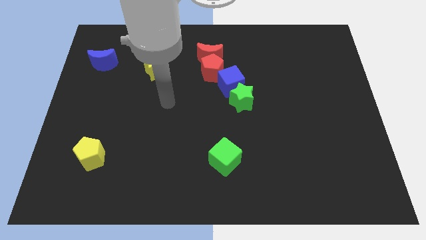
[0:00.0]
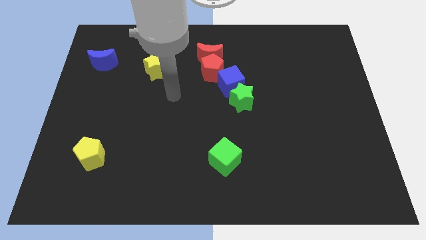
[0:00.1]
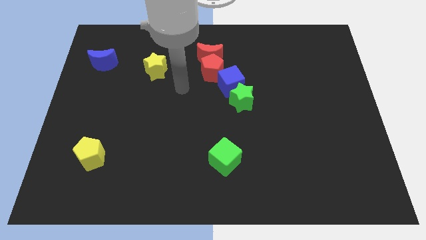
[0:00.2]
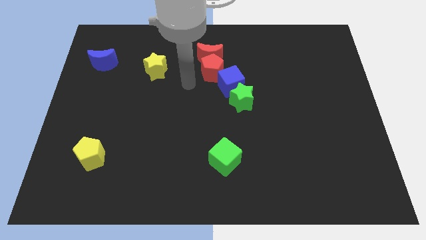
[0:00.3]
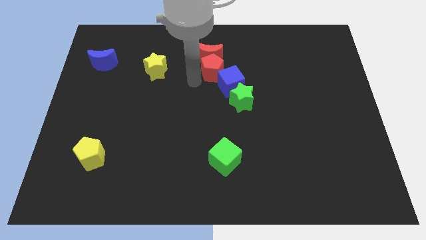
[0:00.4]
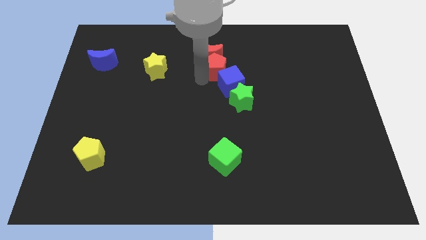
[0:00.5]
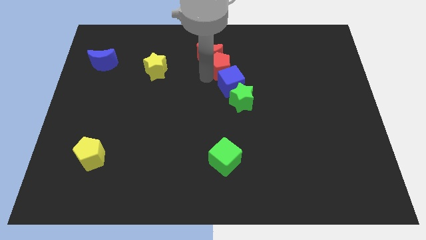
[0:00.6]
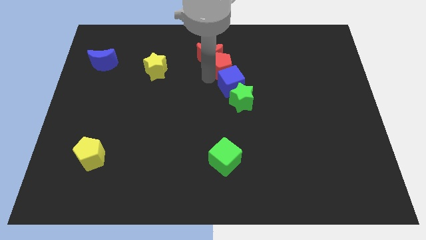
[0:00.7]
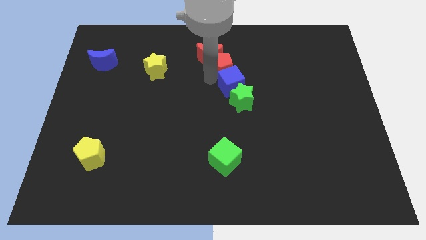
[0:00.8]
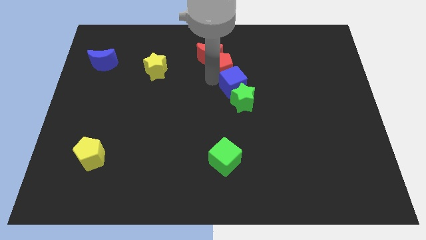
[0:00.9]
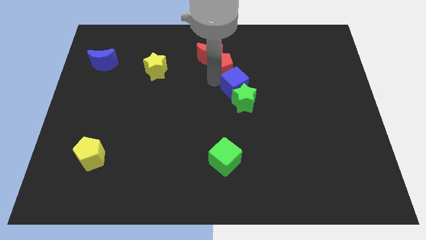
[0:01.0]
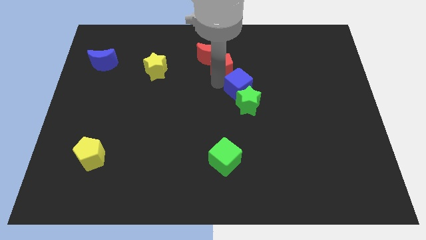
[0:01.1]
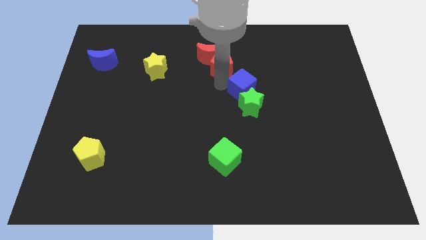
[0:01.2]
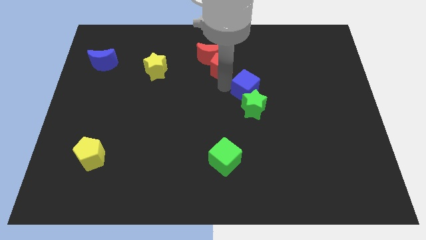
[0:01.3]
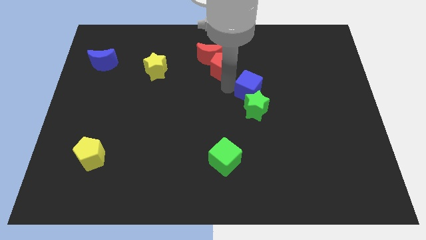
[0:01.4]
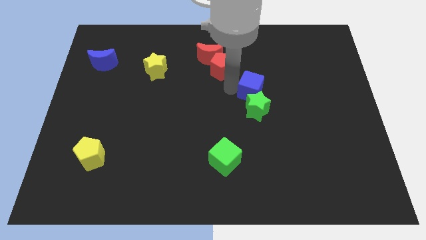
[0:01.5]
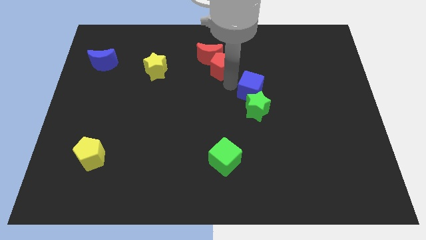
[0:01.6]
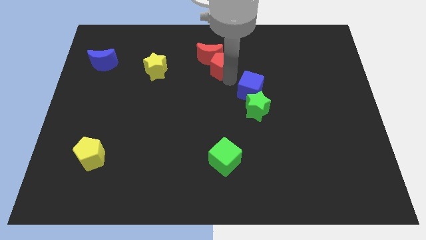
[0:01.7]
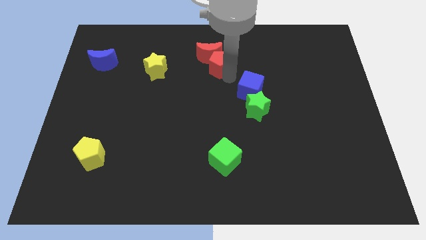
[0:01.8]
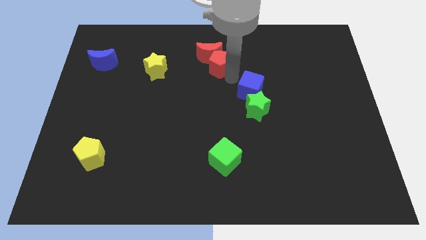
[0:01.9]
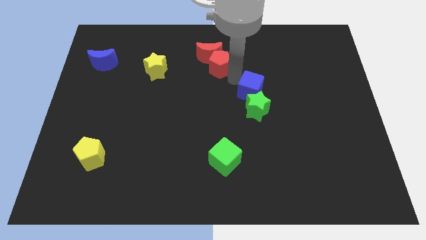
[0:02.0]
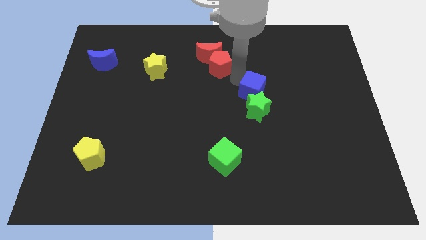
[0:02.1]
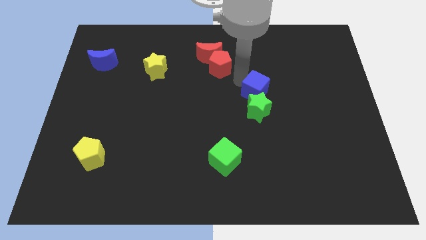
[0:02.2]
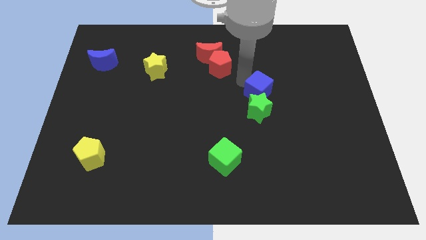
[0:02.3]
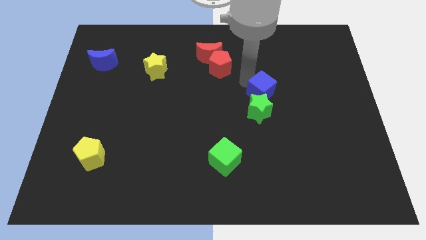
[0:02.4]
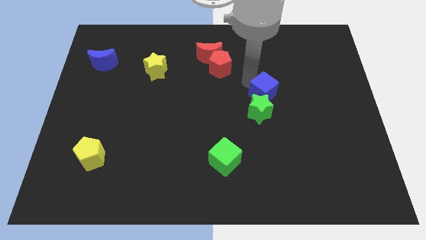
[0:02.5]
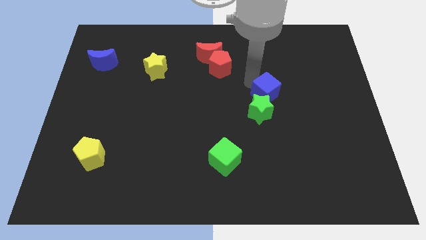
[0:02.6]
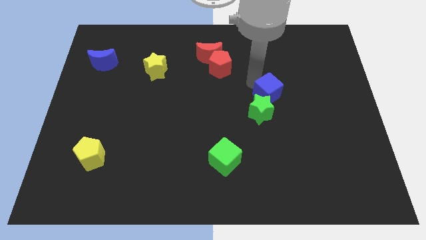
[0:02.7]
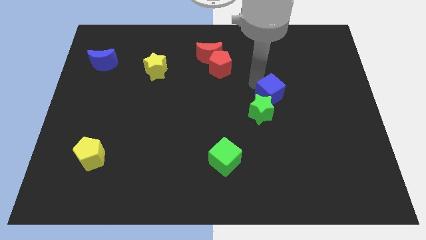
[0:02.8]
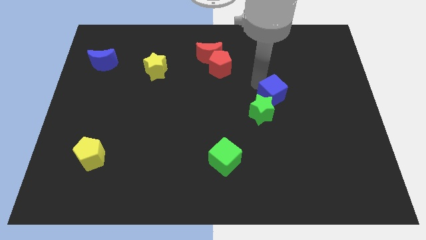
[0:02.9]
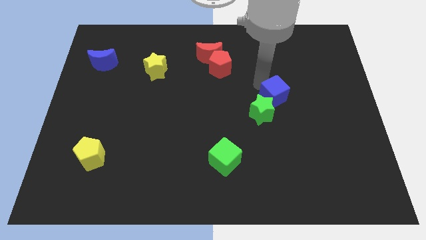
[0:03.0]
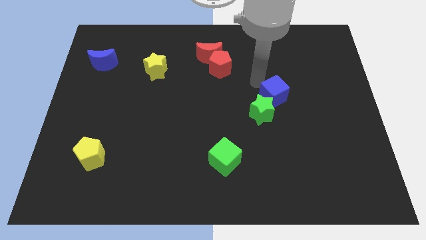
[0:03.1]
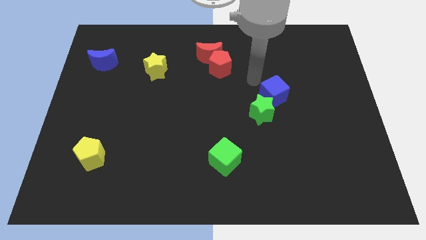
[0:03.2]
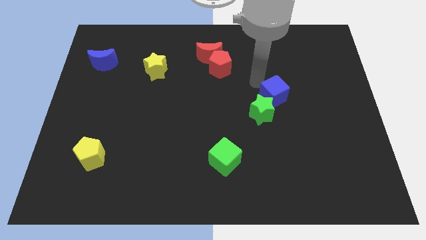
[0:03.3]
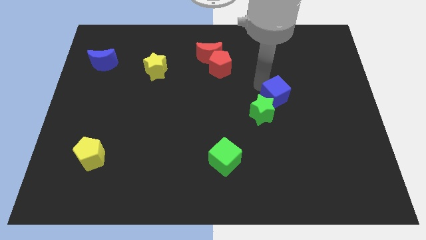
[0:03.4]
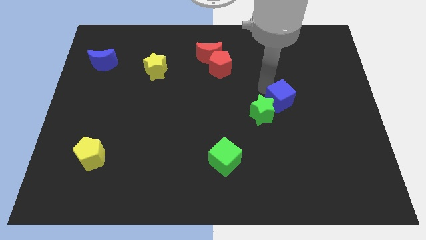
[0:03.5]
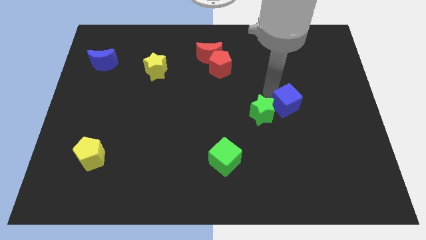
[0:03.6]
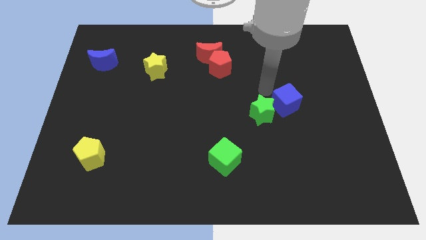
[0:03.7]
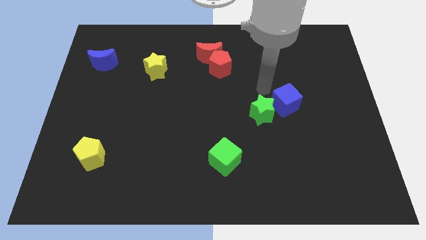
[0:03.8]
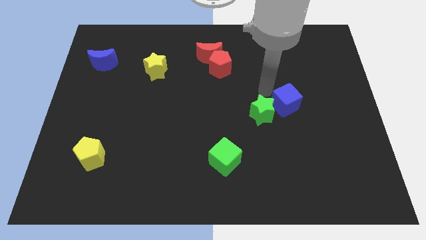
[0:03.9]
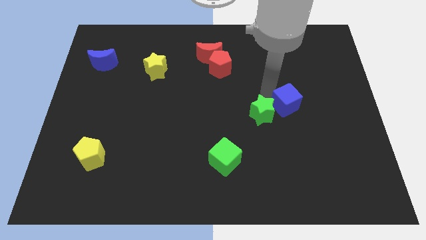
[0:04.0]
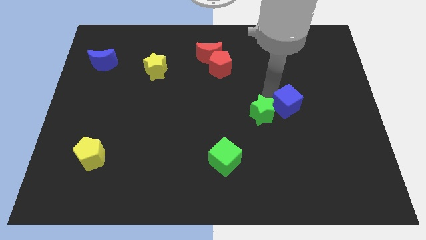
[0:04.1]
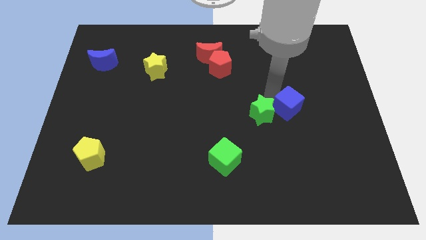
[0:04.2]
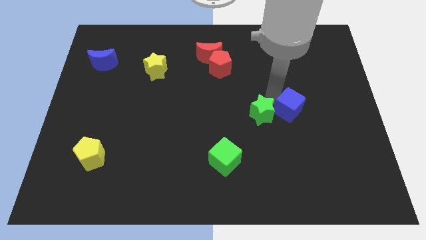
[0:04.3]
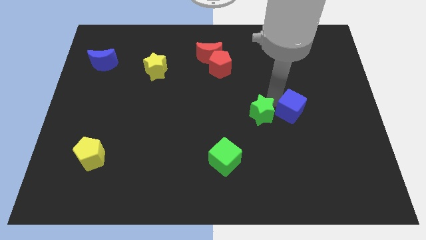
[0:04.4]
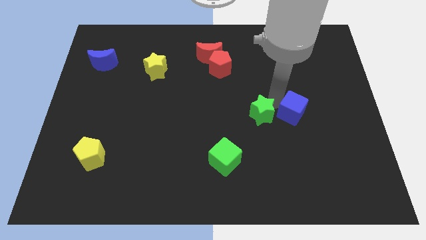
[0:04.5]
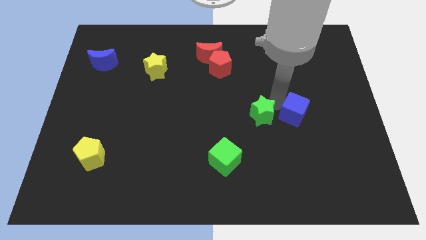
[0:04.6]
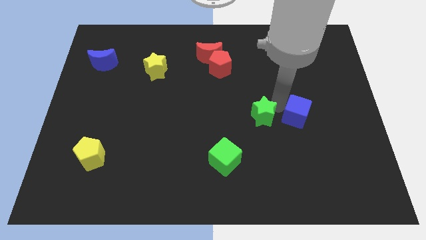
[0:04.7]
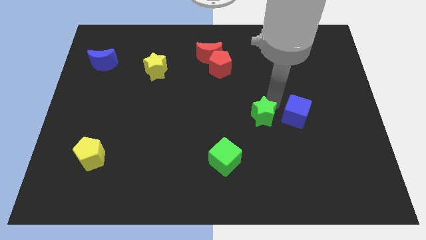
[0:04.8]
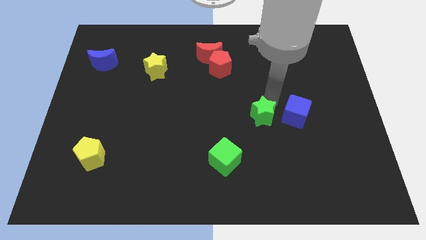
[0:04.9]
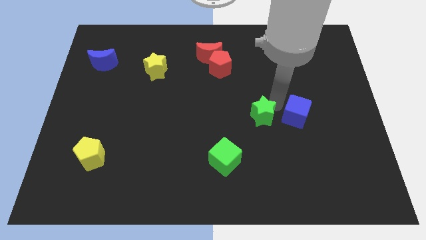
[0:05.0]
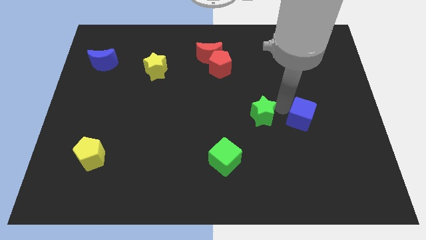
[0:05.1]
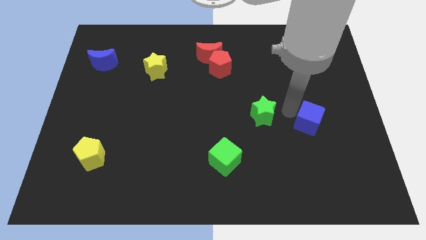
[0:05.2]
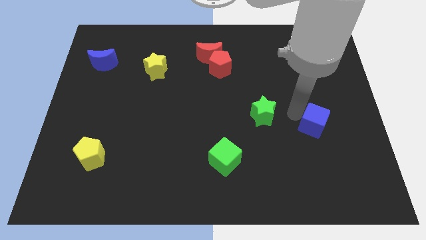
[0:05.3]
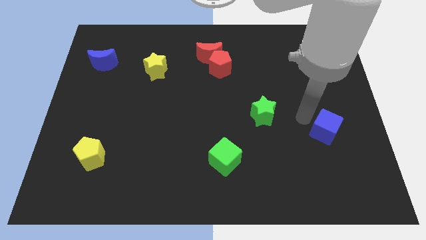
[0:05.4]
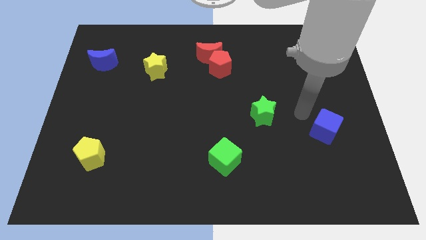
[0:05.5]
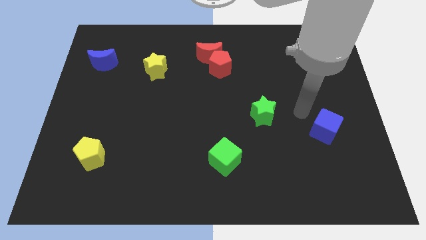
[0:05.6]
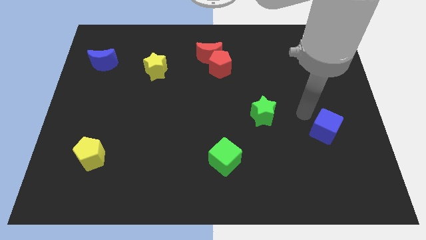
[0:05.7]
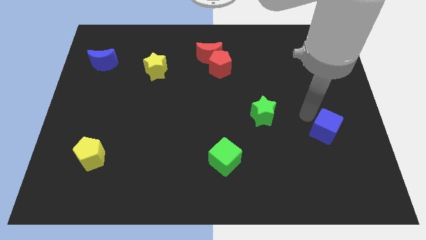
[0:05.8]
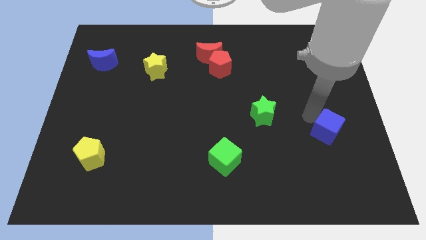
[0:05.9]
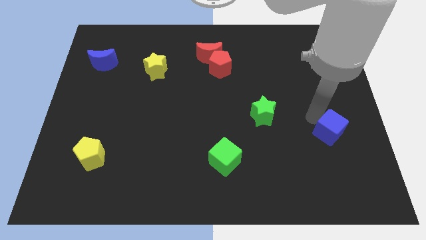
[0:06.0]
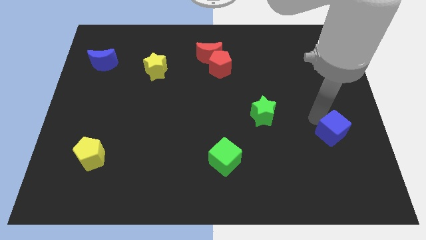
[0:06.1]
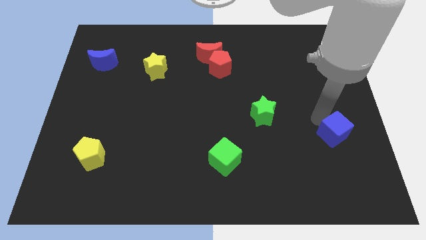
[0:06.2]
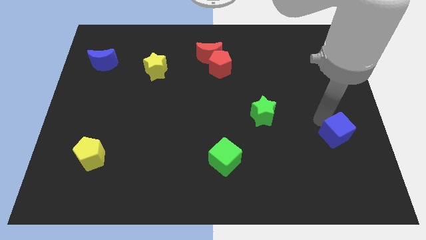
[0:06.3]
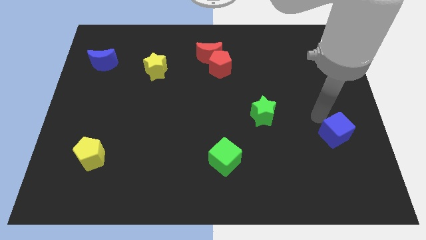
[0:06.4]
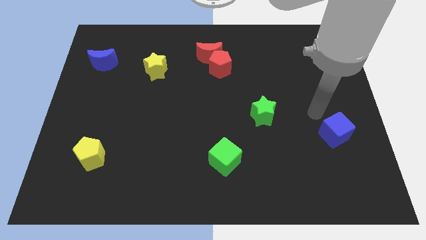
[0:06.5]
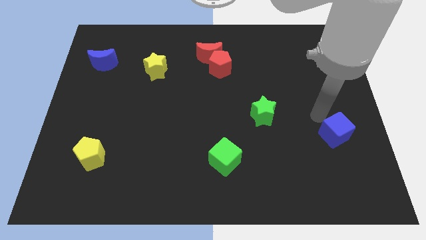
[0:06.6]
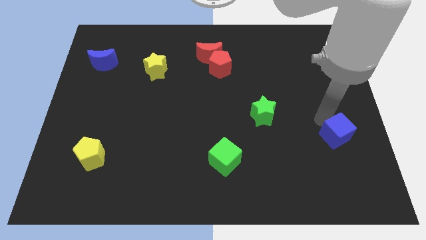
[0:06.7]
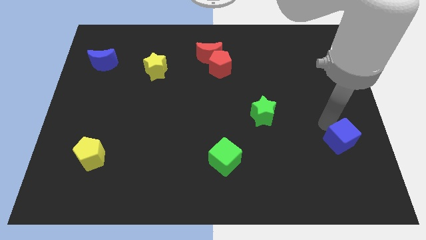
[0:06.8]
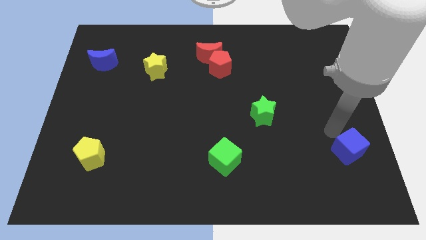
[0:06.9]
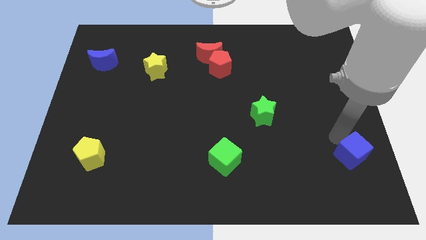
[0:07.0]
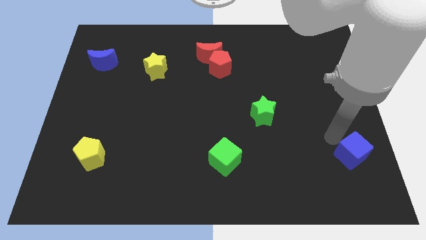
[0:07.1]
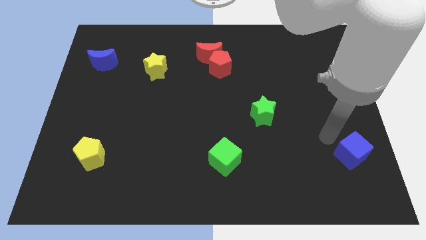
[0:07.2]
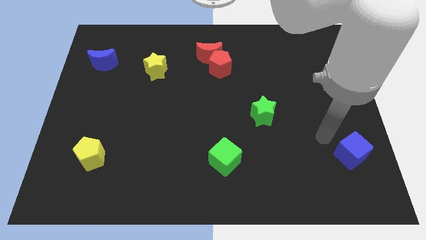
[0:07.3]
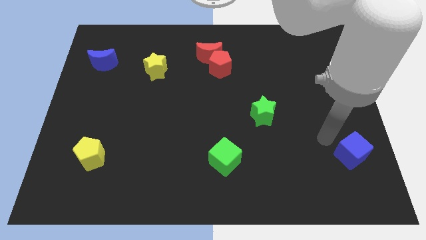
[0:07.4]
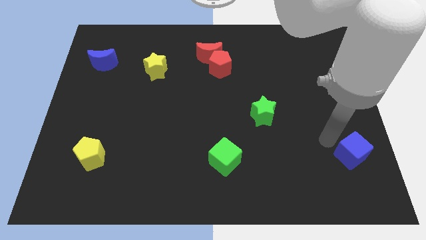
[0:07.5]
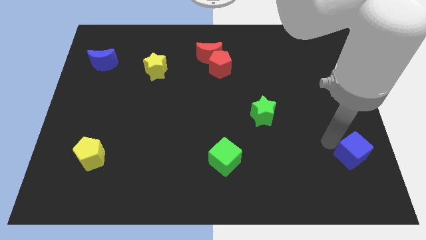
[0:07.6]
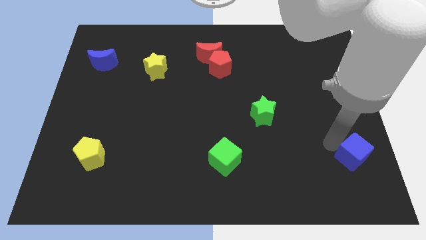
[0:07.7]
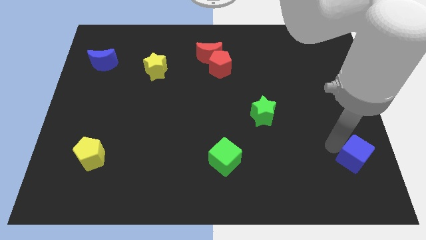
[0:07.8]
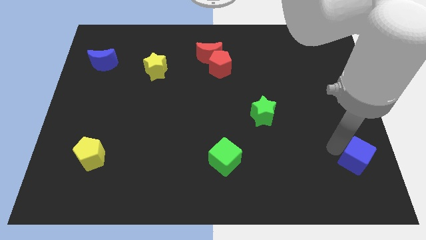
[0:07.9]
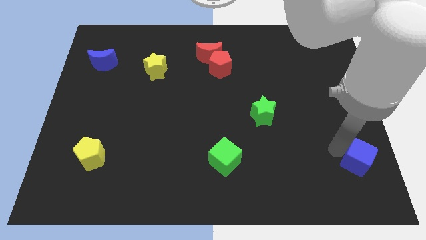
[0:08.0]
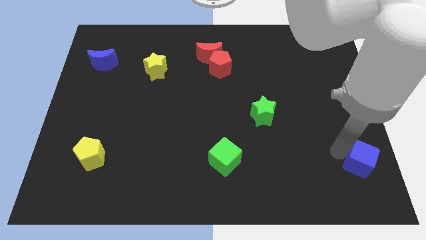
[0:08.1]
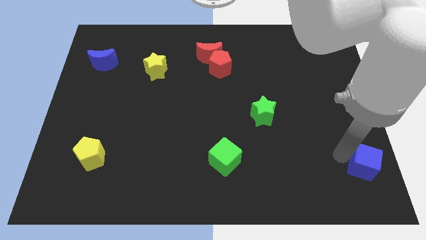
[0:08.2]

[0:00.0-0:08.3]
move the blue cube to the bottom right of the board
